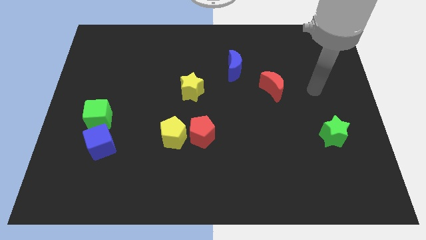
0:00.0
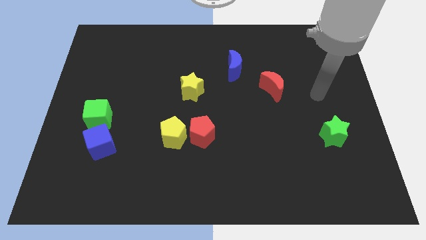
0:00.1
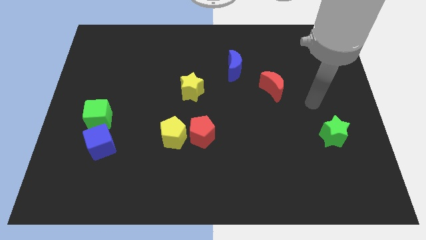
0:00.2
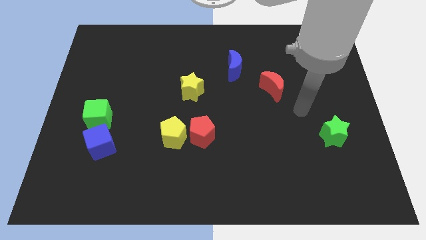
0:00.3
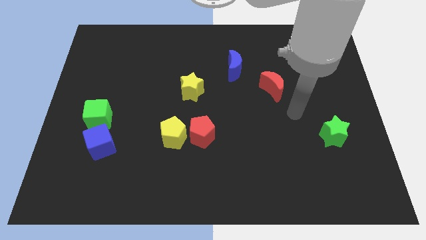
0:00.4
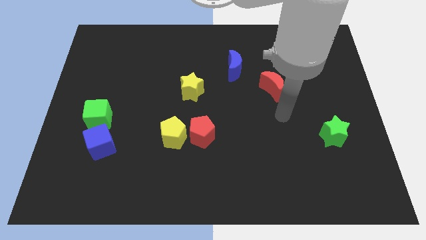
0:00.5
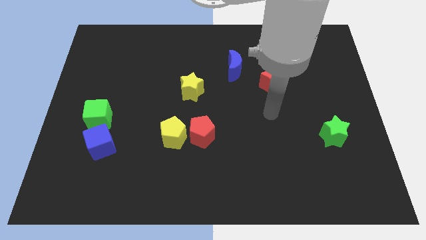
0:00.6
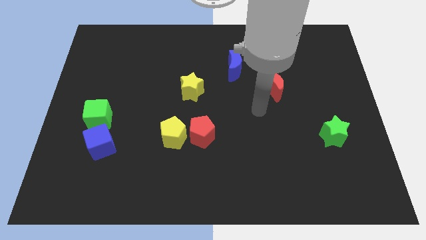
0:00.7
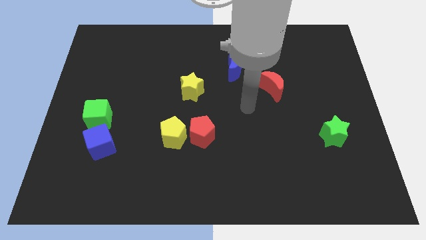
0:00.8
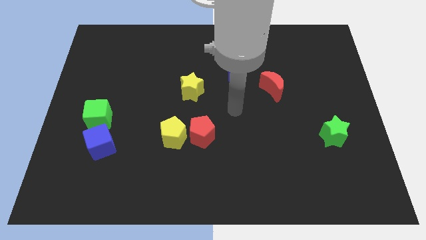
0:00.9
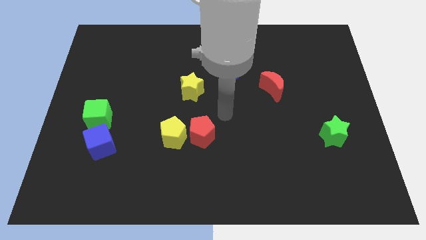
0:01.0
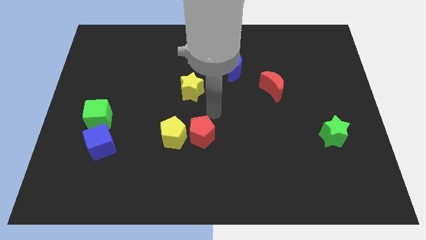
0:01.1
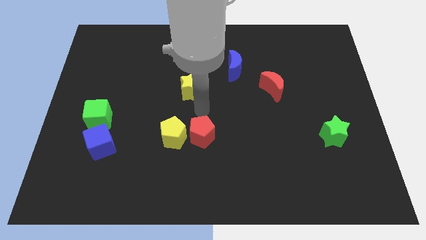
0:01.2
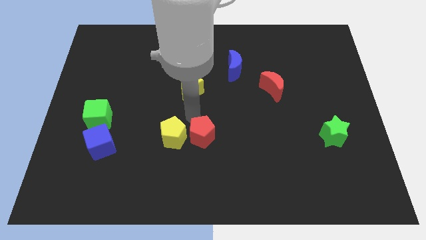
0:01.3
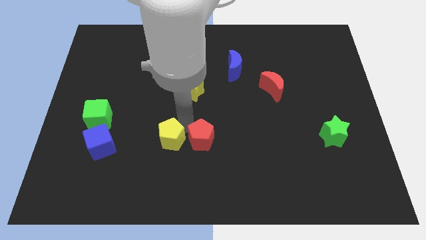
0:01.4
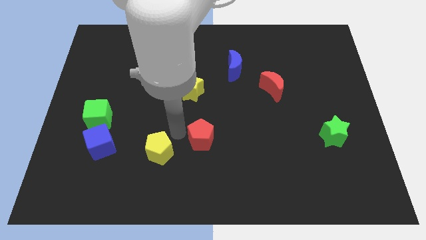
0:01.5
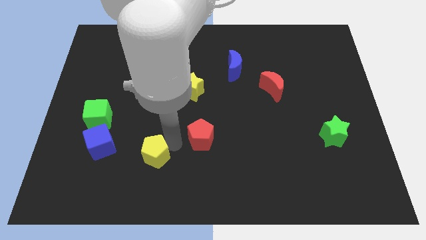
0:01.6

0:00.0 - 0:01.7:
pull the red pentagon apart from the yellow pentagon

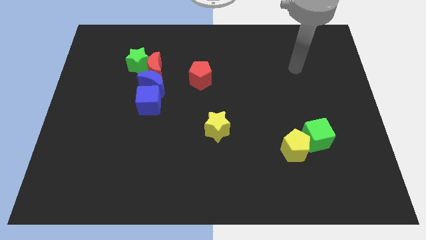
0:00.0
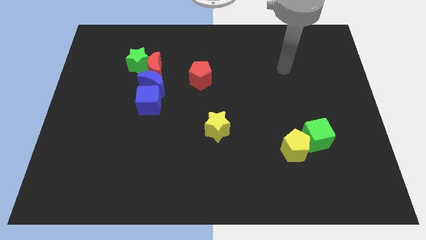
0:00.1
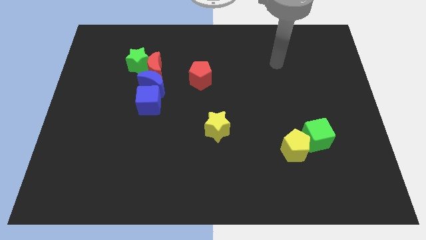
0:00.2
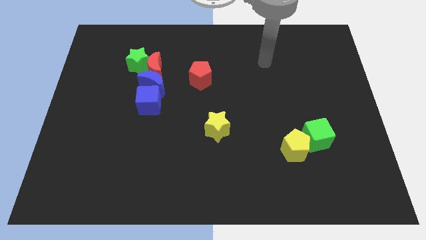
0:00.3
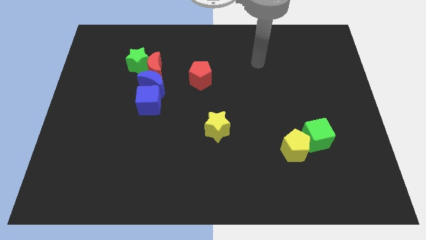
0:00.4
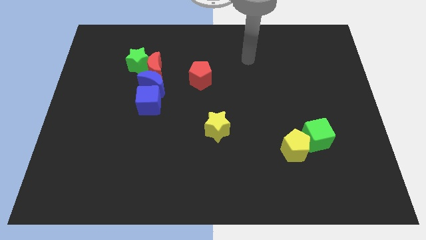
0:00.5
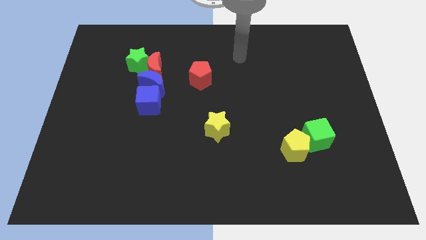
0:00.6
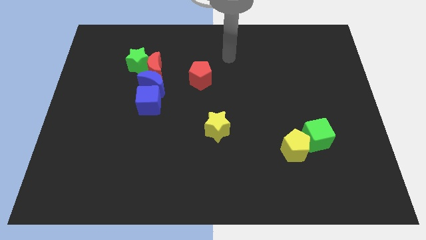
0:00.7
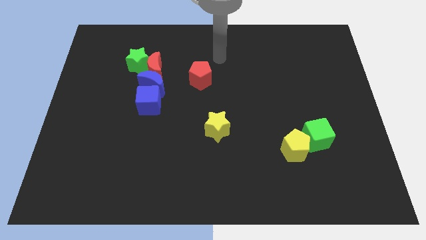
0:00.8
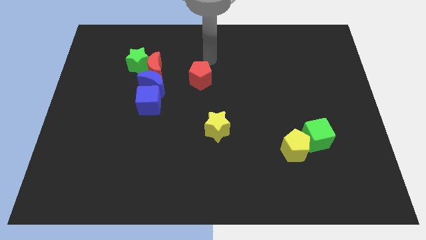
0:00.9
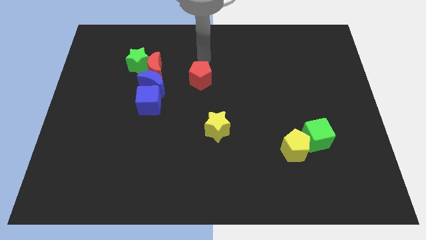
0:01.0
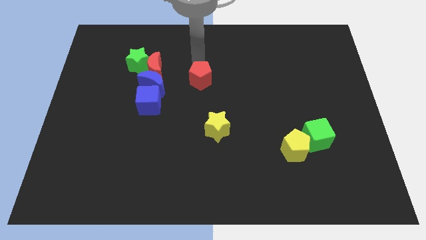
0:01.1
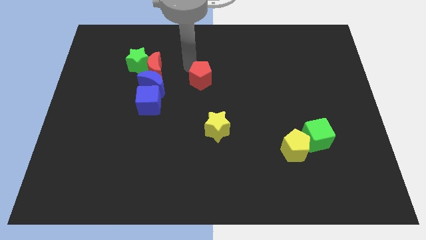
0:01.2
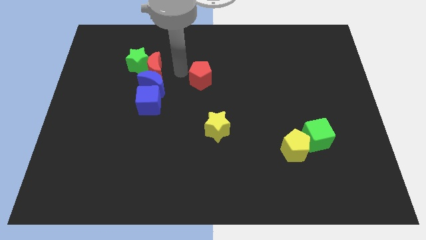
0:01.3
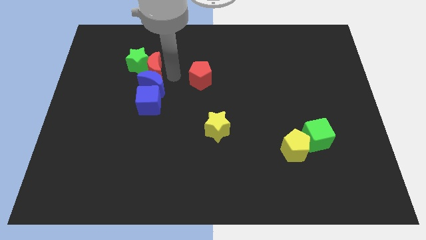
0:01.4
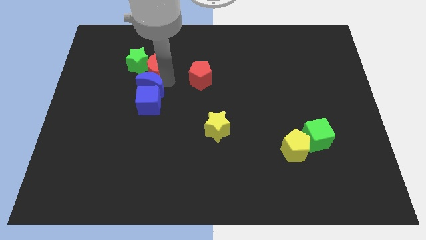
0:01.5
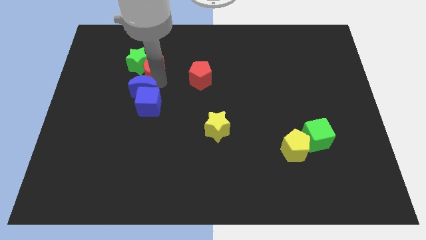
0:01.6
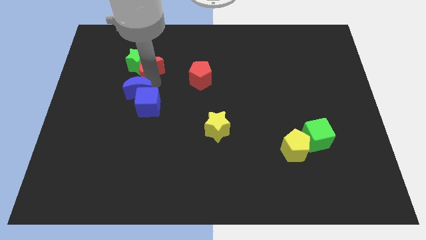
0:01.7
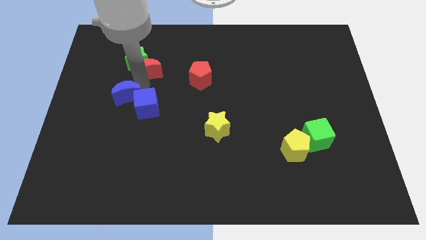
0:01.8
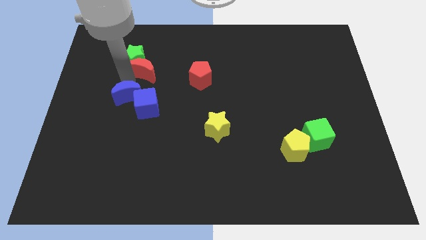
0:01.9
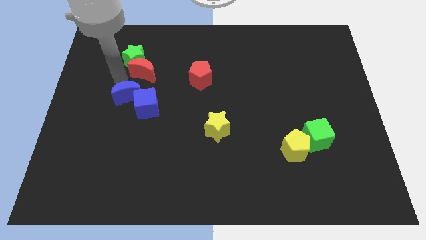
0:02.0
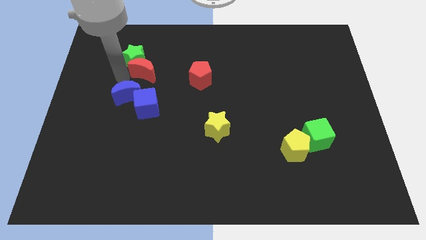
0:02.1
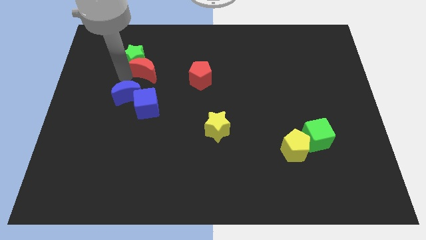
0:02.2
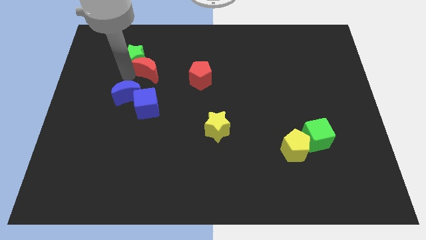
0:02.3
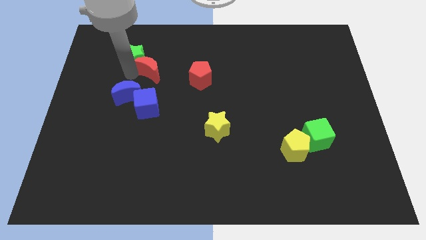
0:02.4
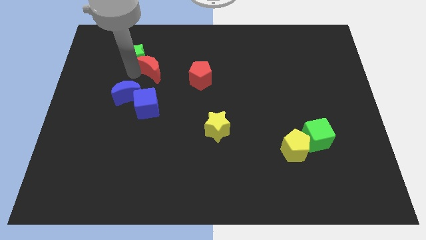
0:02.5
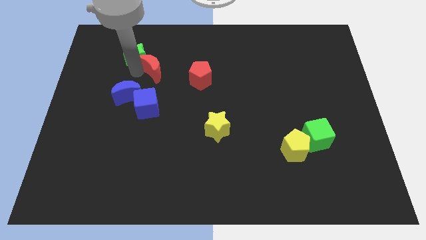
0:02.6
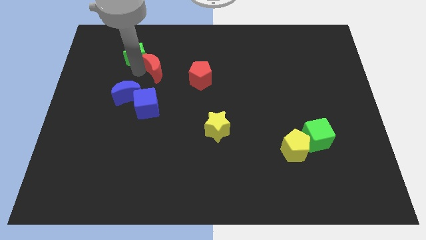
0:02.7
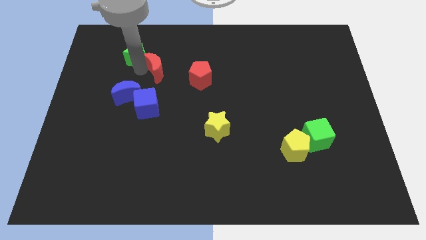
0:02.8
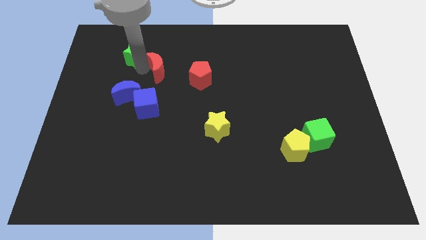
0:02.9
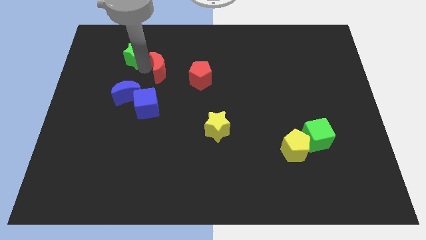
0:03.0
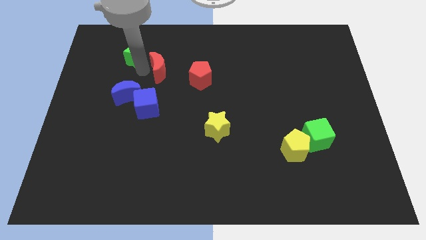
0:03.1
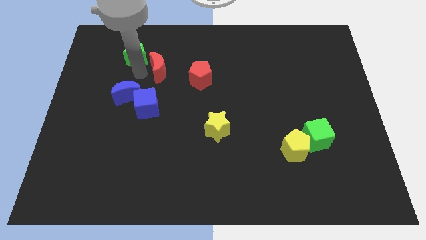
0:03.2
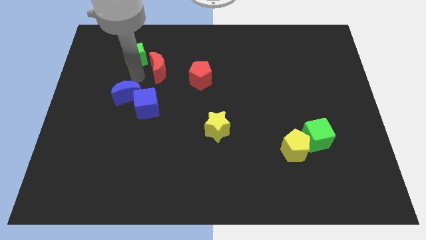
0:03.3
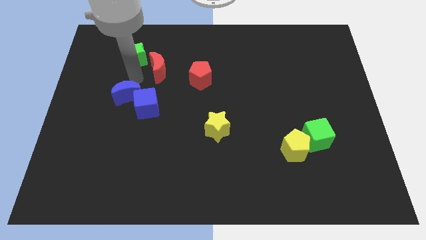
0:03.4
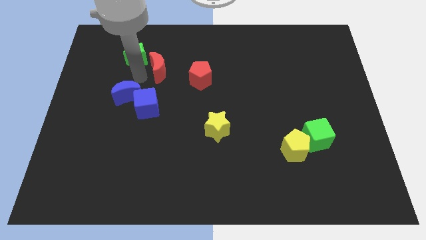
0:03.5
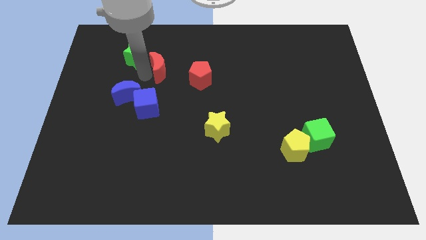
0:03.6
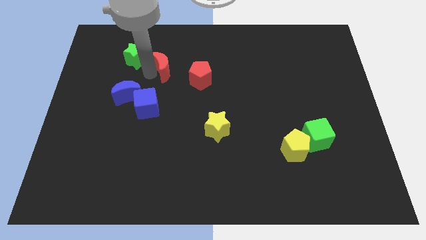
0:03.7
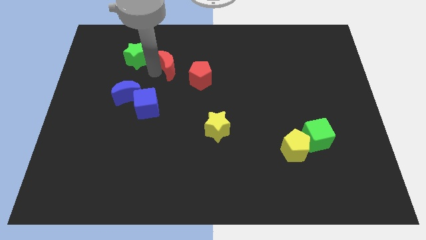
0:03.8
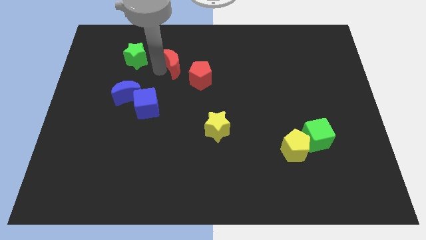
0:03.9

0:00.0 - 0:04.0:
move the red moon away from the blue moon and green star

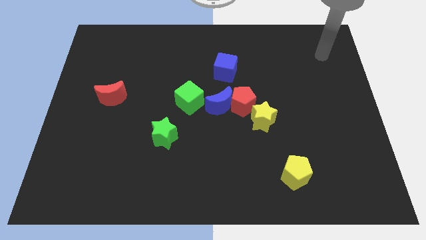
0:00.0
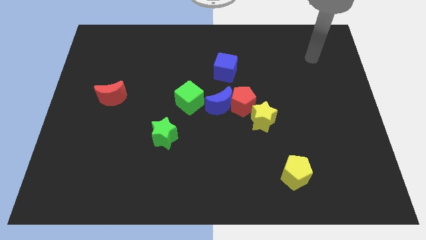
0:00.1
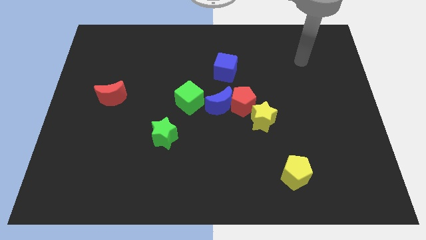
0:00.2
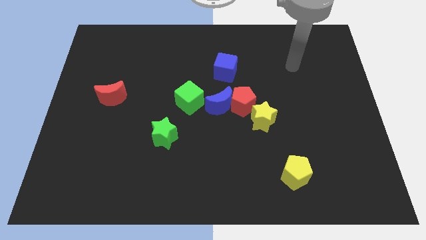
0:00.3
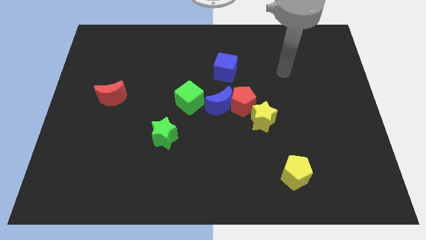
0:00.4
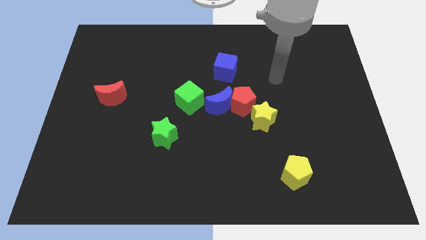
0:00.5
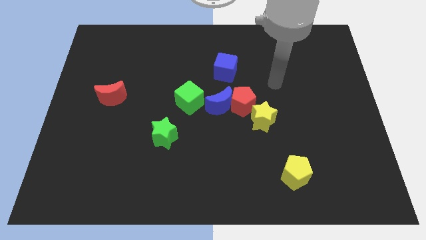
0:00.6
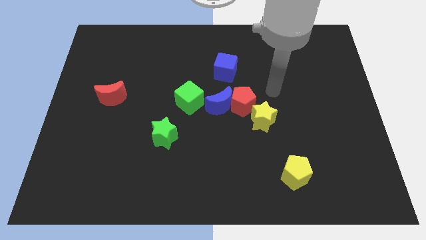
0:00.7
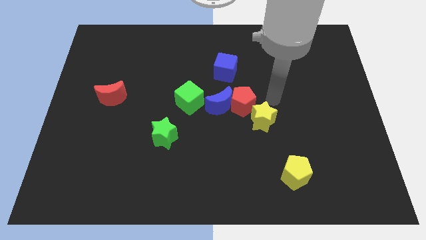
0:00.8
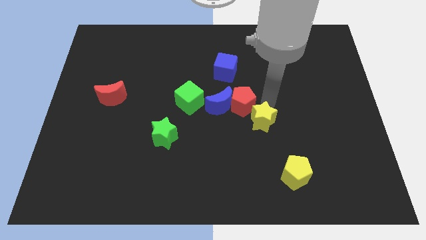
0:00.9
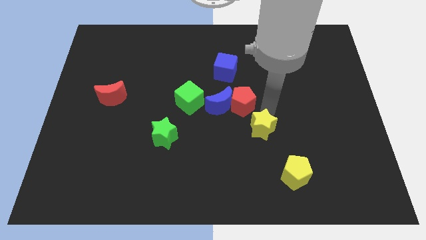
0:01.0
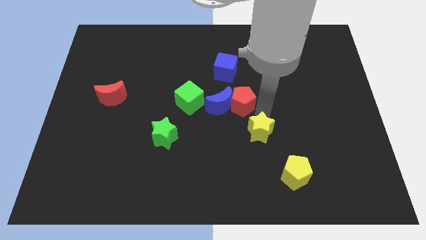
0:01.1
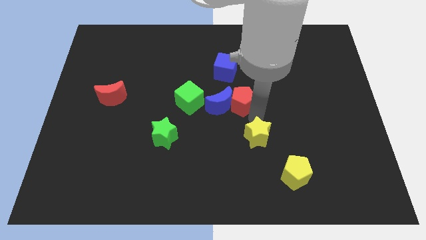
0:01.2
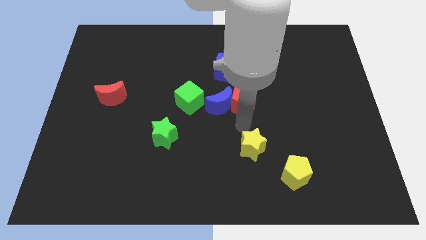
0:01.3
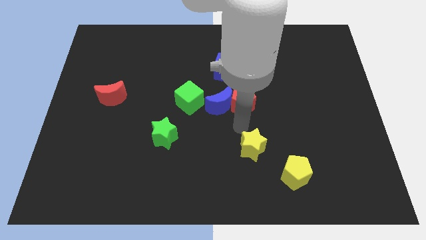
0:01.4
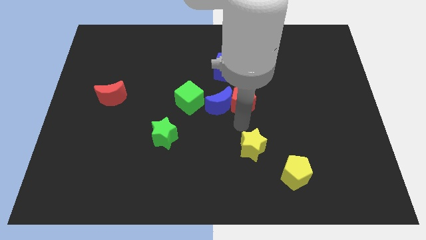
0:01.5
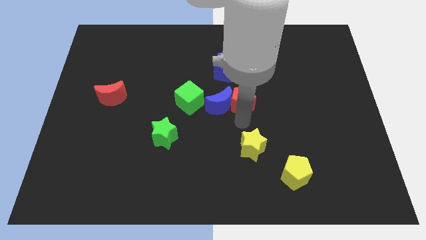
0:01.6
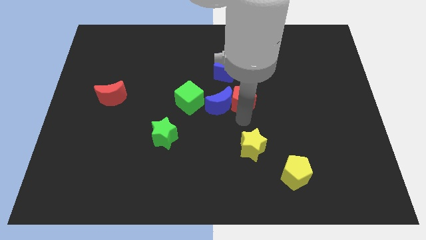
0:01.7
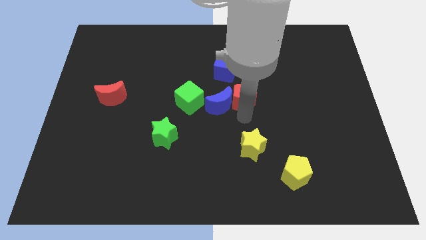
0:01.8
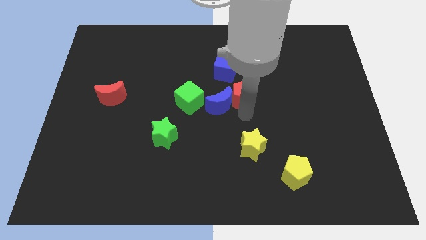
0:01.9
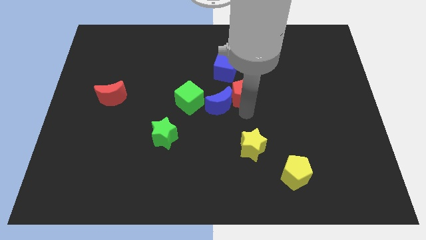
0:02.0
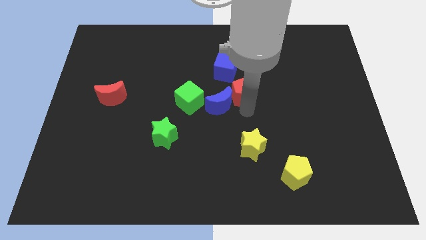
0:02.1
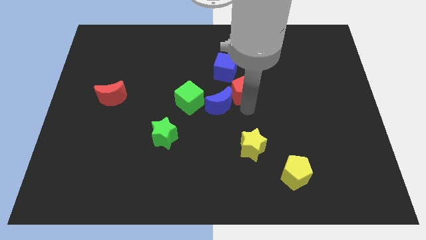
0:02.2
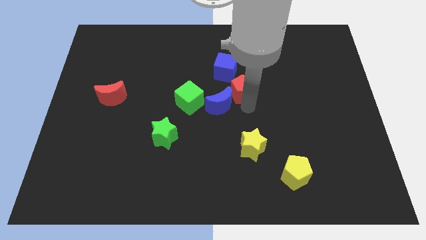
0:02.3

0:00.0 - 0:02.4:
separate the red pentagon from the blue moon and yellow star

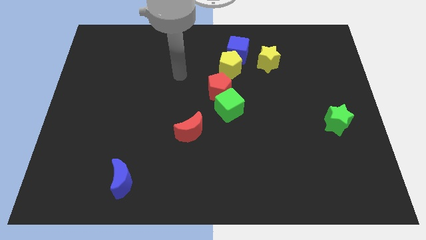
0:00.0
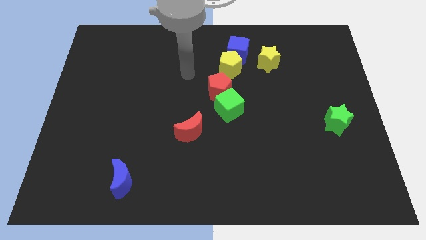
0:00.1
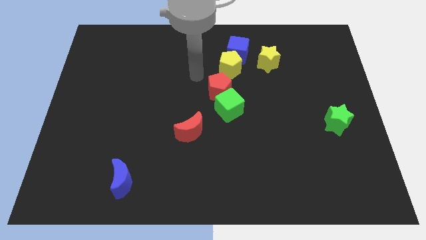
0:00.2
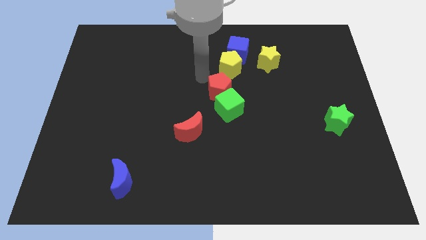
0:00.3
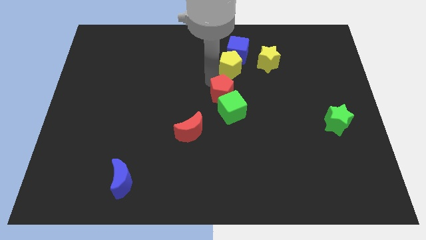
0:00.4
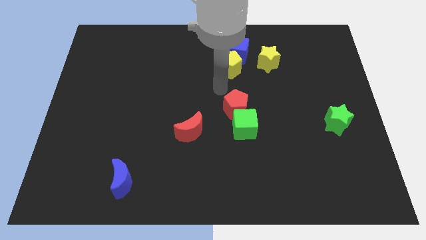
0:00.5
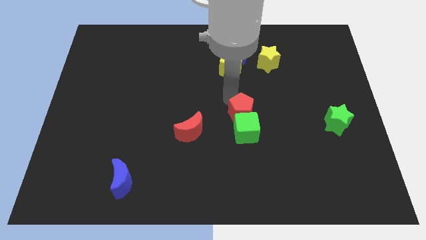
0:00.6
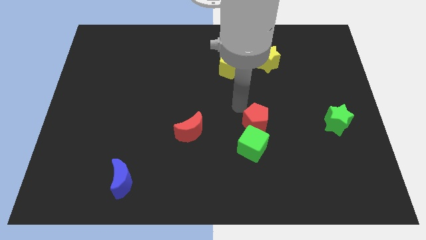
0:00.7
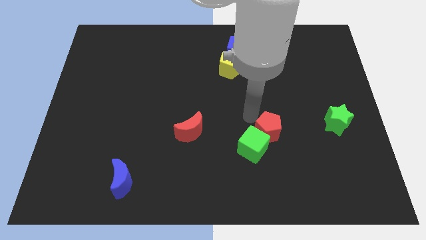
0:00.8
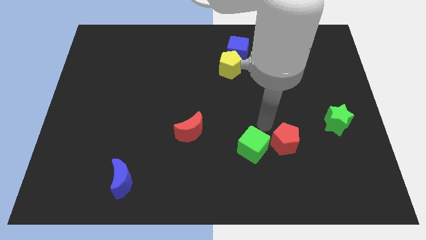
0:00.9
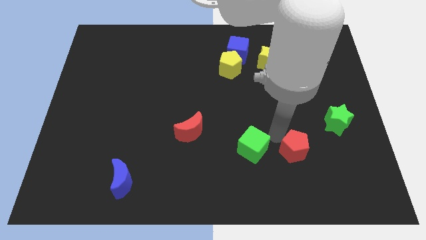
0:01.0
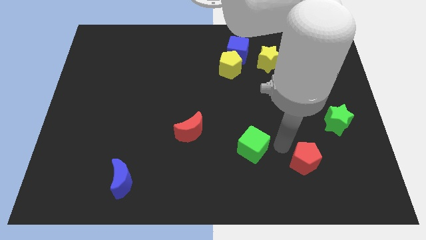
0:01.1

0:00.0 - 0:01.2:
pull the green cube apart from the red pentagon

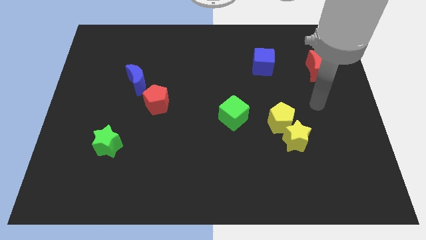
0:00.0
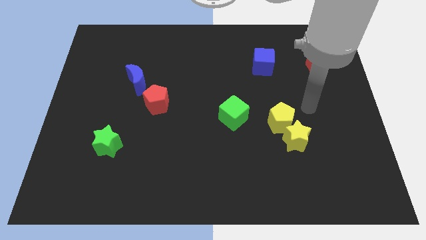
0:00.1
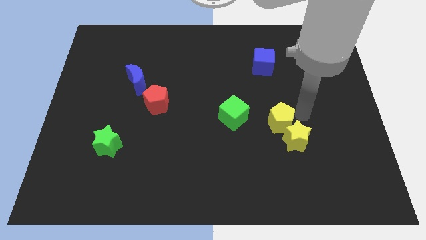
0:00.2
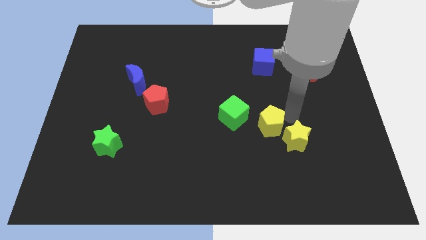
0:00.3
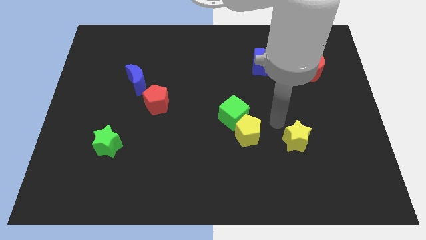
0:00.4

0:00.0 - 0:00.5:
separate the yellow star from the yellow pentagon
